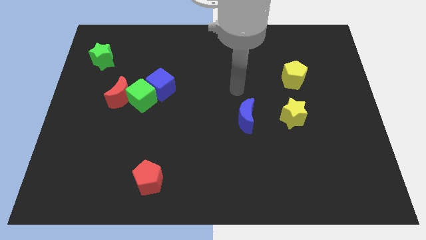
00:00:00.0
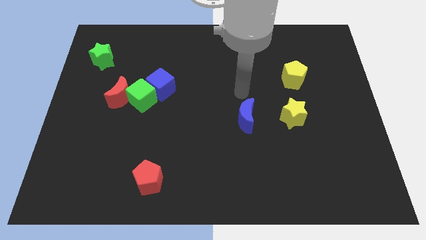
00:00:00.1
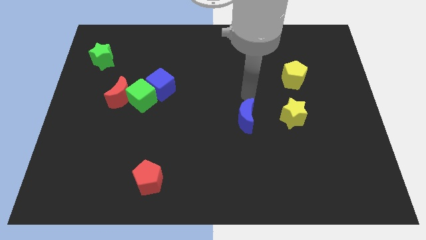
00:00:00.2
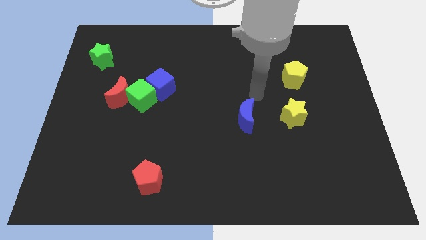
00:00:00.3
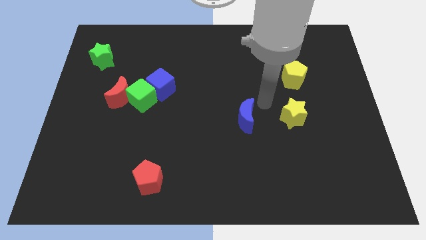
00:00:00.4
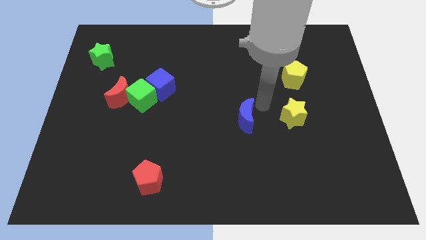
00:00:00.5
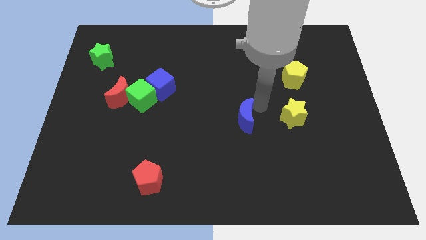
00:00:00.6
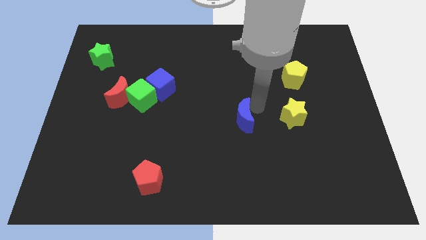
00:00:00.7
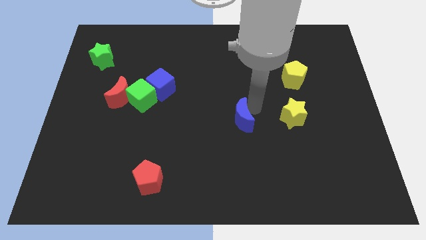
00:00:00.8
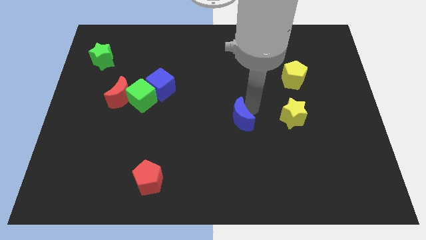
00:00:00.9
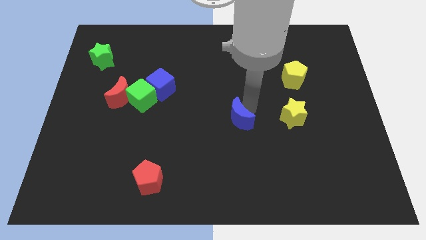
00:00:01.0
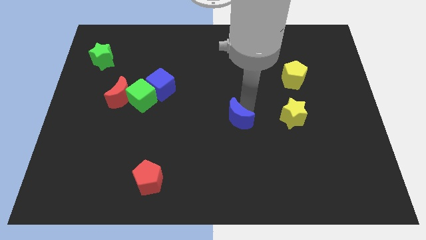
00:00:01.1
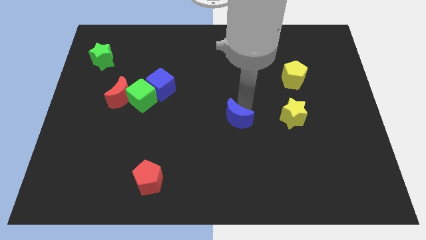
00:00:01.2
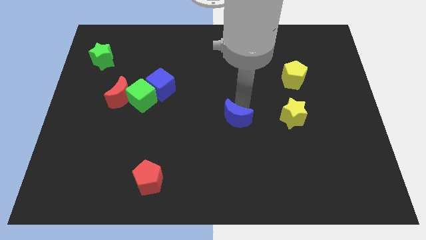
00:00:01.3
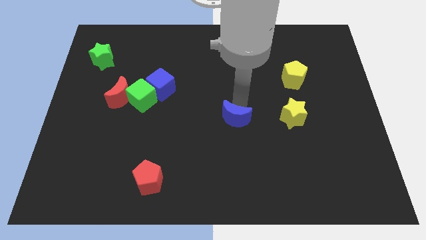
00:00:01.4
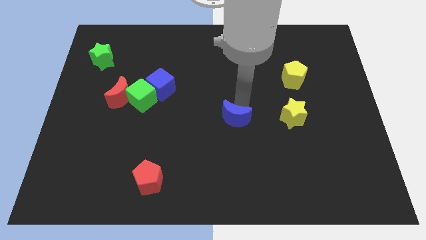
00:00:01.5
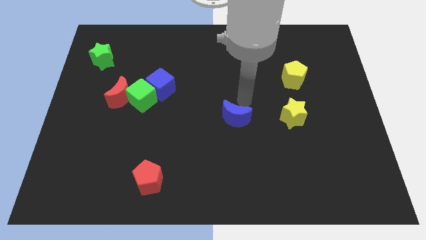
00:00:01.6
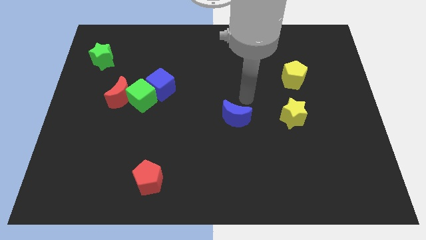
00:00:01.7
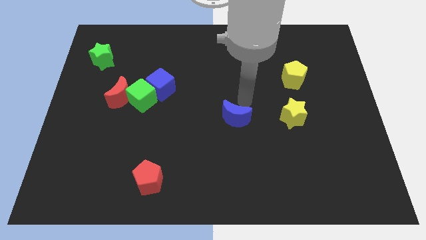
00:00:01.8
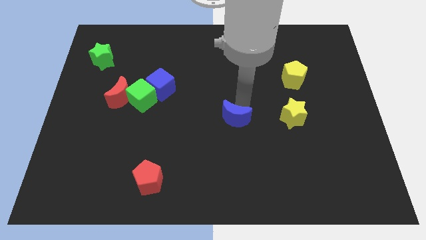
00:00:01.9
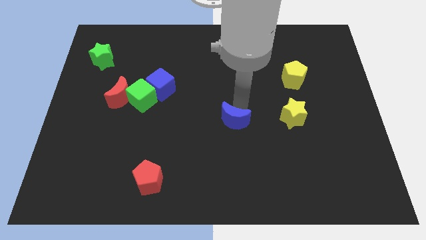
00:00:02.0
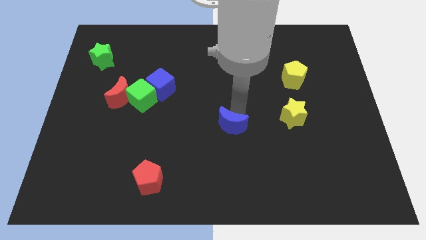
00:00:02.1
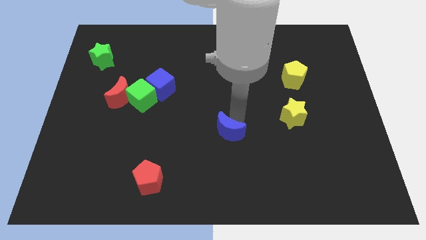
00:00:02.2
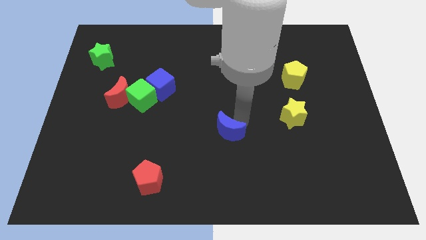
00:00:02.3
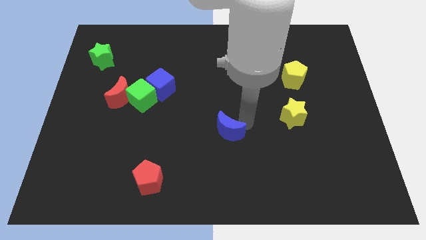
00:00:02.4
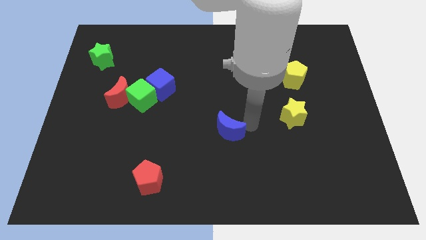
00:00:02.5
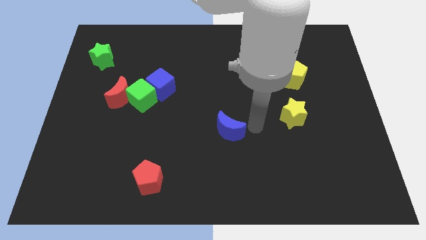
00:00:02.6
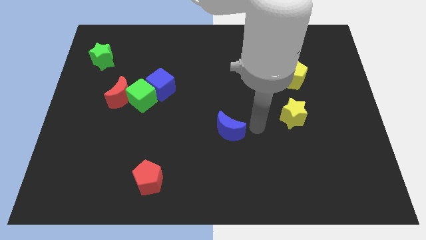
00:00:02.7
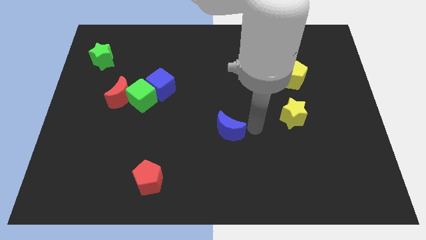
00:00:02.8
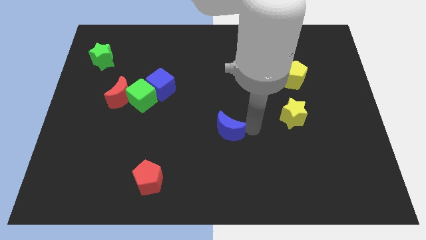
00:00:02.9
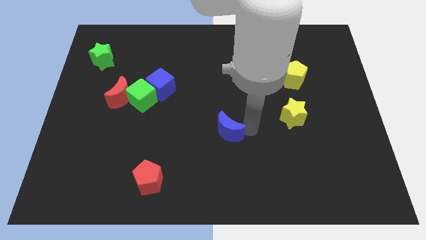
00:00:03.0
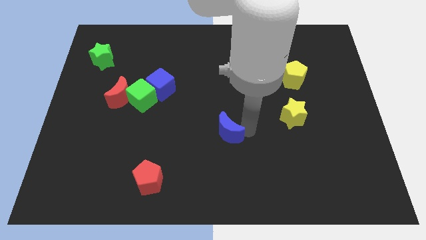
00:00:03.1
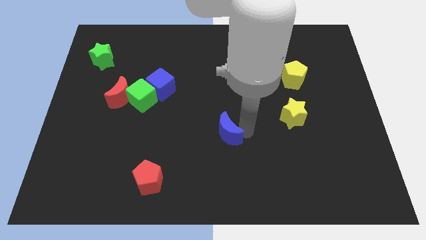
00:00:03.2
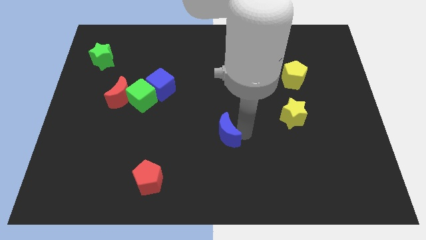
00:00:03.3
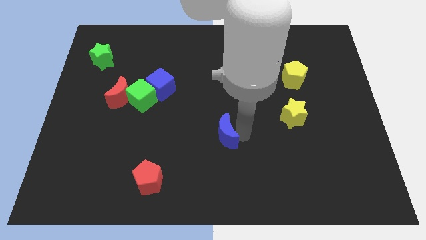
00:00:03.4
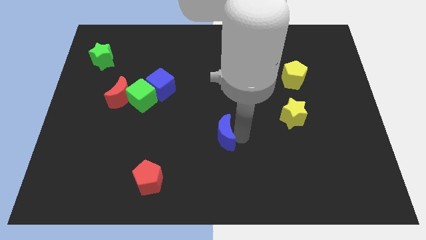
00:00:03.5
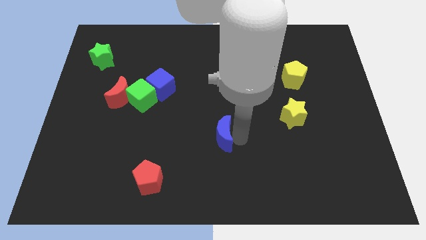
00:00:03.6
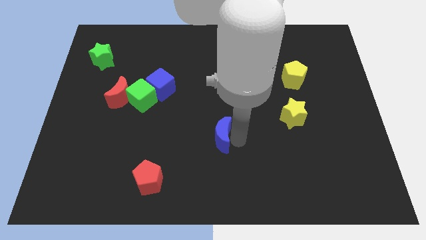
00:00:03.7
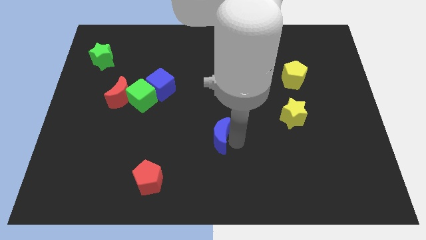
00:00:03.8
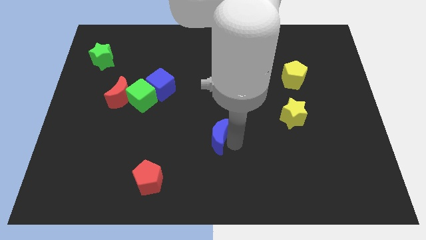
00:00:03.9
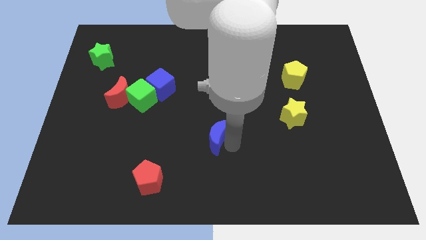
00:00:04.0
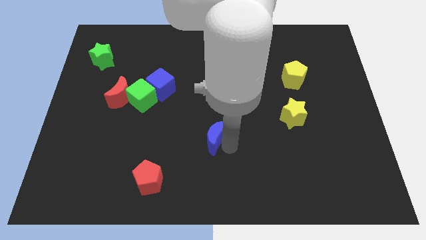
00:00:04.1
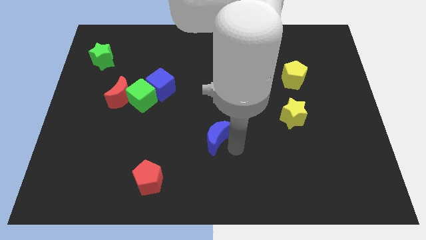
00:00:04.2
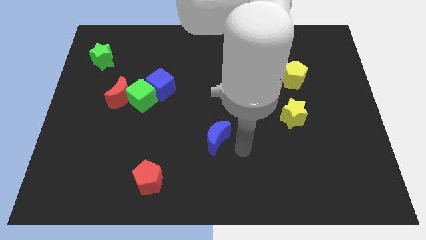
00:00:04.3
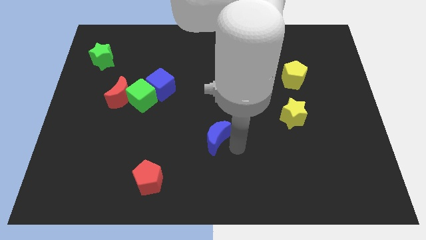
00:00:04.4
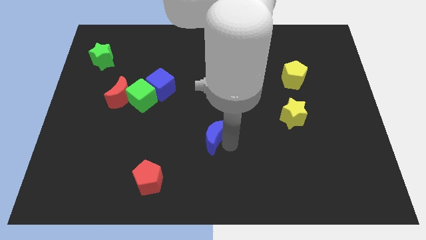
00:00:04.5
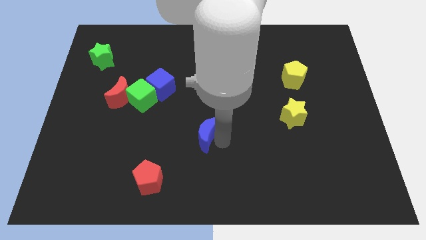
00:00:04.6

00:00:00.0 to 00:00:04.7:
slightly push the blue moon left

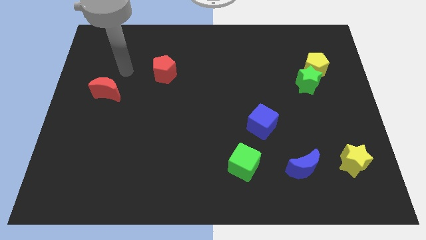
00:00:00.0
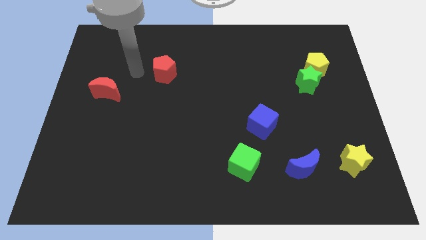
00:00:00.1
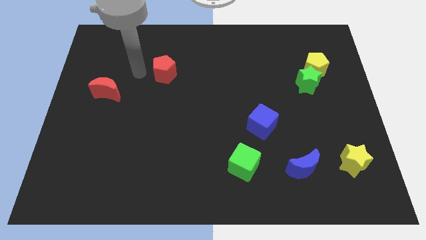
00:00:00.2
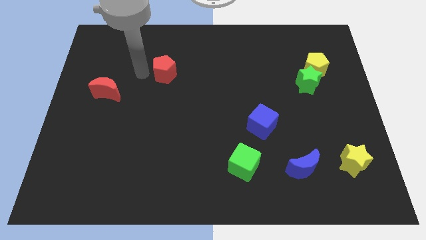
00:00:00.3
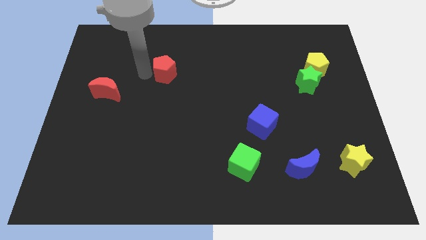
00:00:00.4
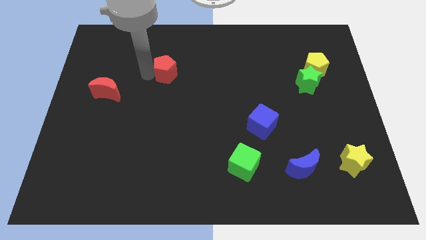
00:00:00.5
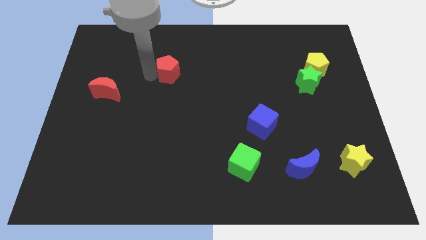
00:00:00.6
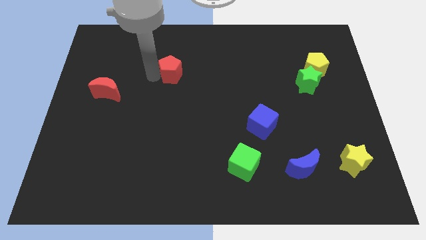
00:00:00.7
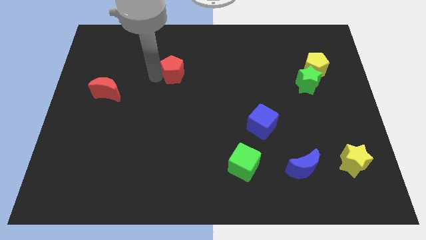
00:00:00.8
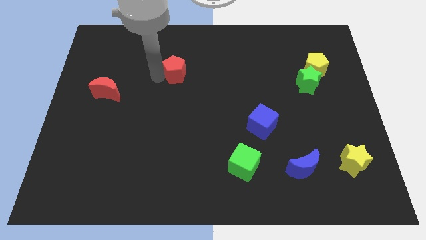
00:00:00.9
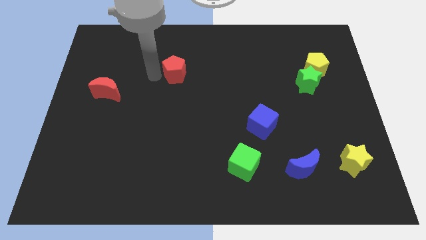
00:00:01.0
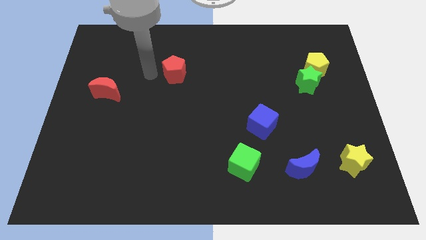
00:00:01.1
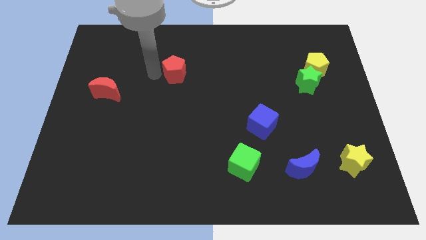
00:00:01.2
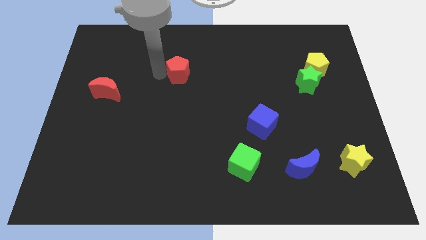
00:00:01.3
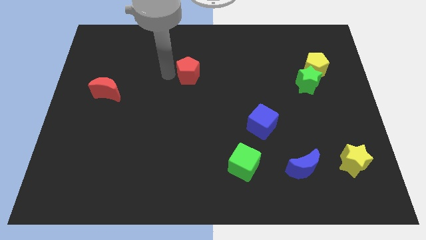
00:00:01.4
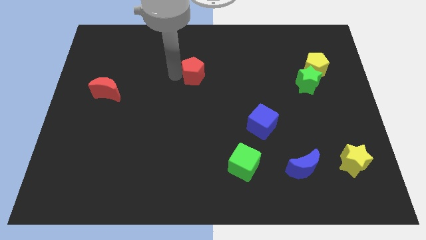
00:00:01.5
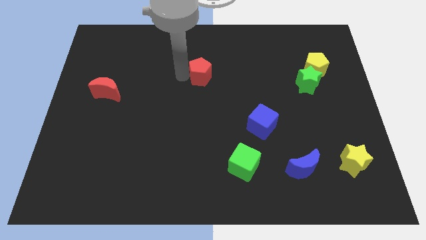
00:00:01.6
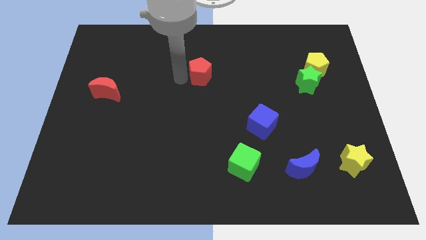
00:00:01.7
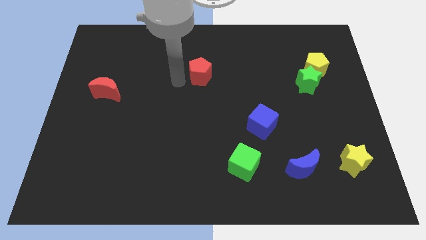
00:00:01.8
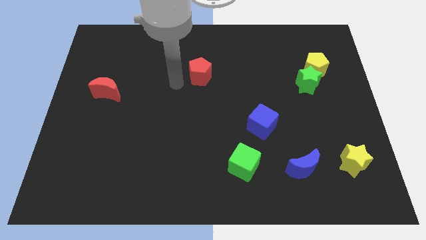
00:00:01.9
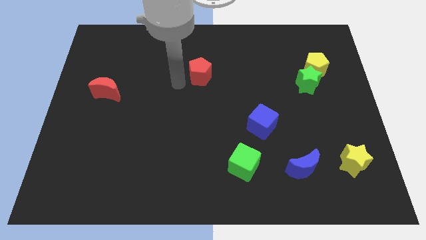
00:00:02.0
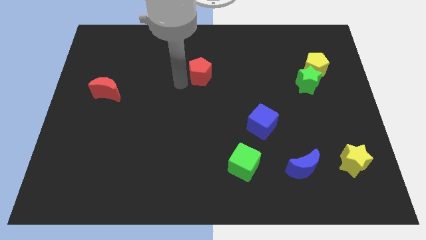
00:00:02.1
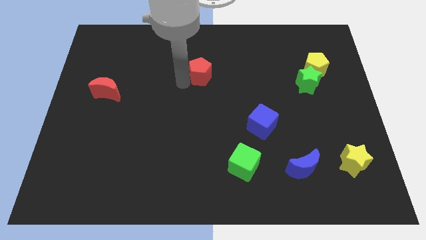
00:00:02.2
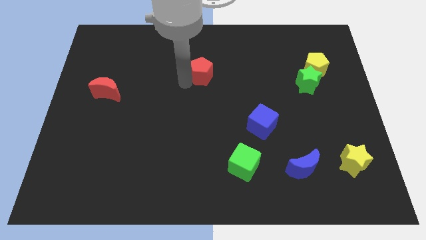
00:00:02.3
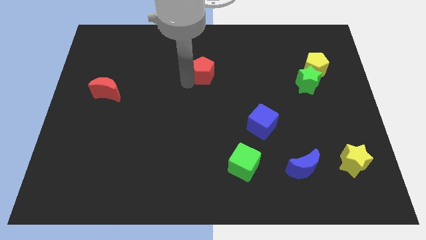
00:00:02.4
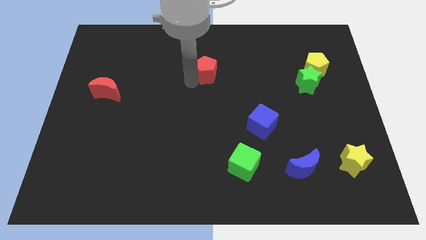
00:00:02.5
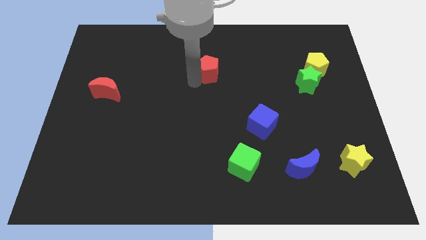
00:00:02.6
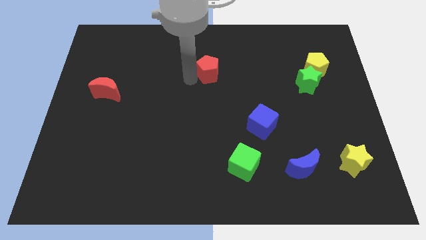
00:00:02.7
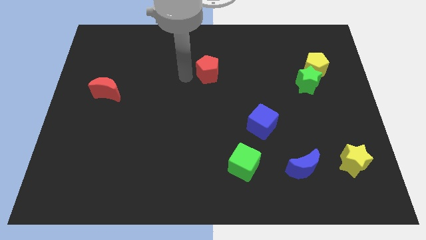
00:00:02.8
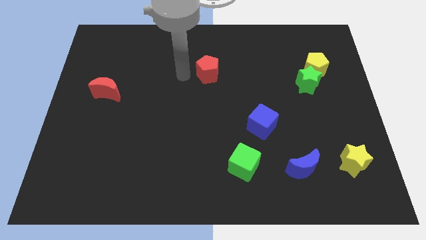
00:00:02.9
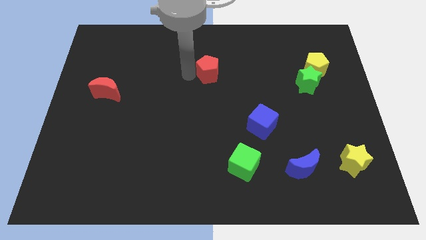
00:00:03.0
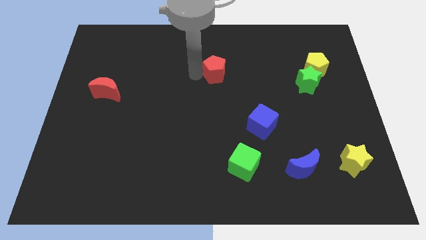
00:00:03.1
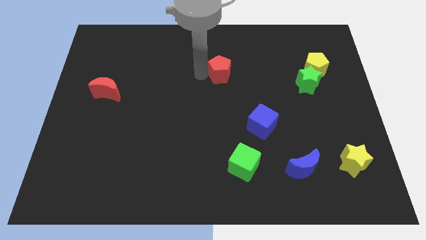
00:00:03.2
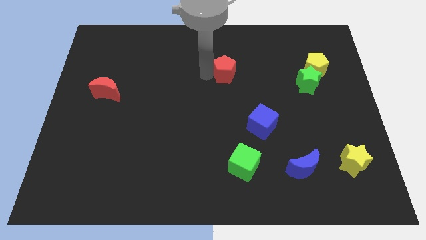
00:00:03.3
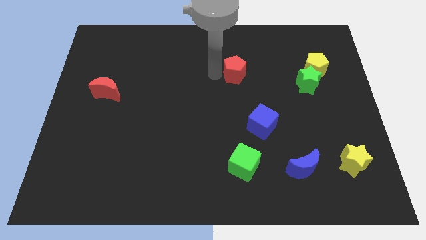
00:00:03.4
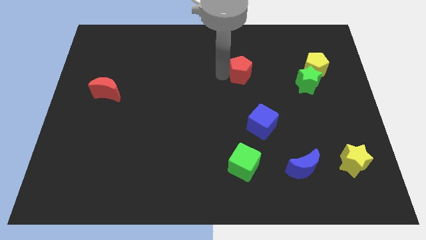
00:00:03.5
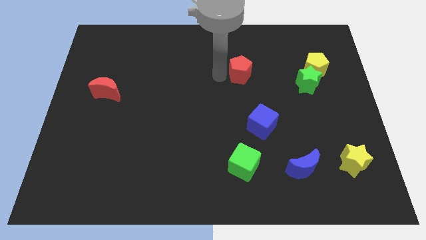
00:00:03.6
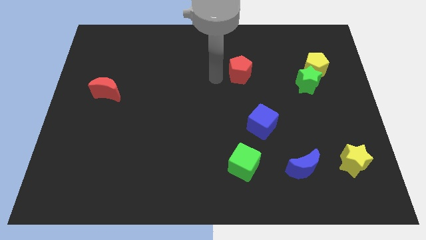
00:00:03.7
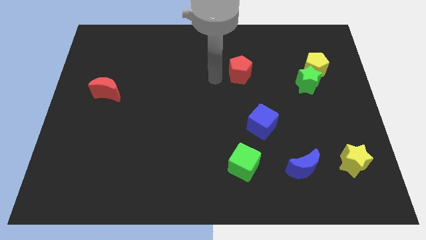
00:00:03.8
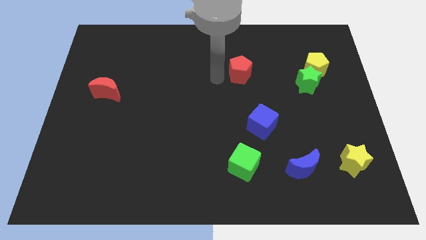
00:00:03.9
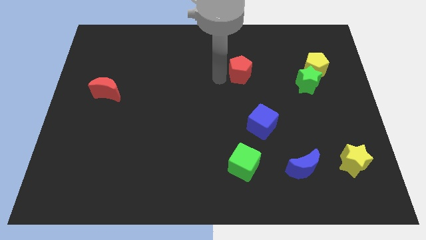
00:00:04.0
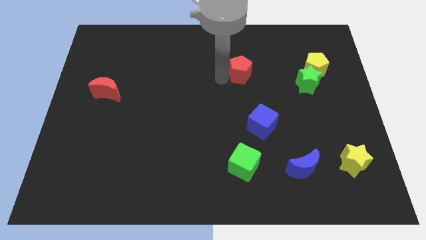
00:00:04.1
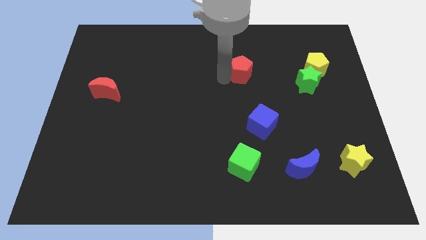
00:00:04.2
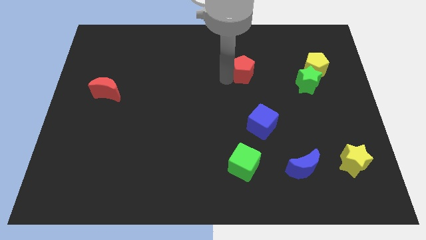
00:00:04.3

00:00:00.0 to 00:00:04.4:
push the red pentagon to the right
